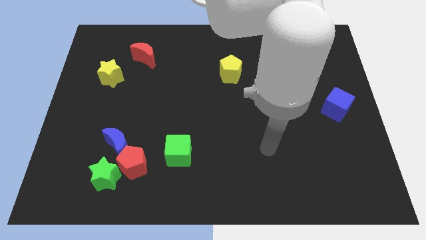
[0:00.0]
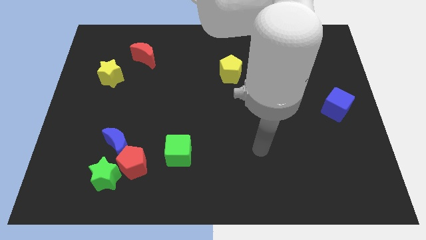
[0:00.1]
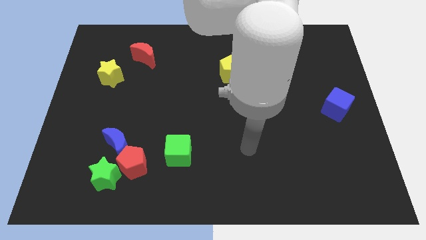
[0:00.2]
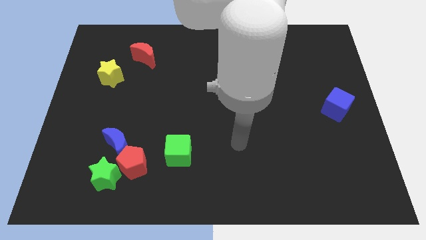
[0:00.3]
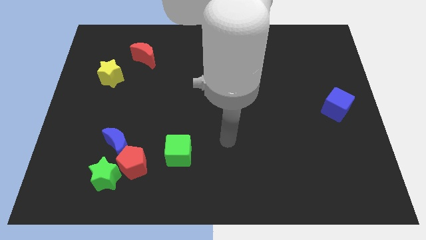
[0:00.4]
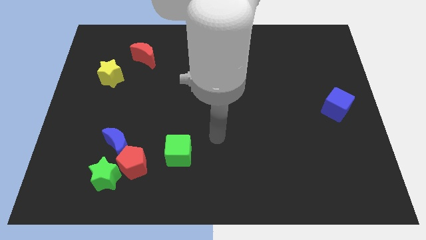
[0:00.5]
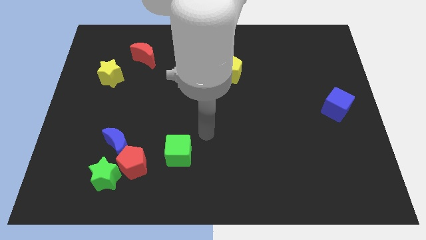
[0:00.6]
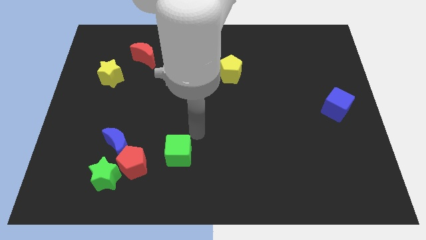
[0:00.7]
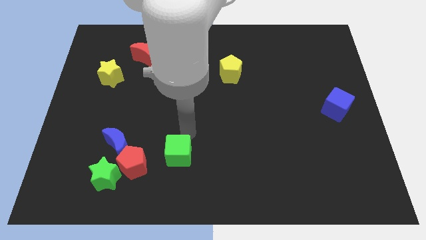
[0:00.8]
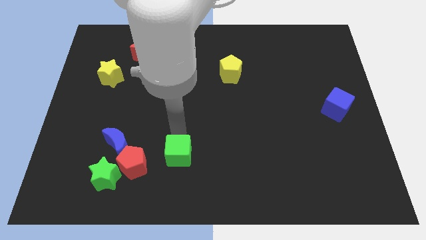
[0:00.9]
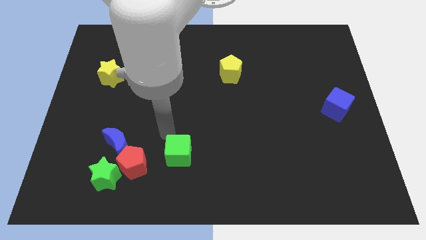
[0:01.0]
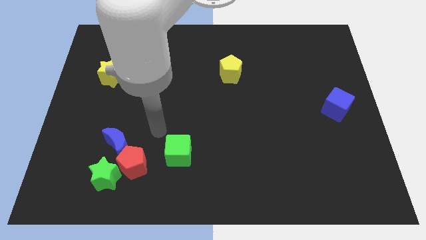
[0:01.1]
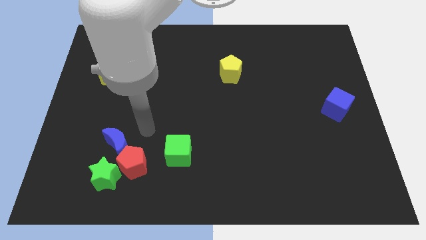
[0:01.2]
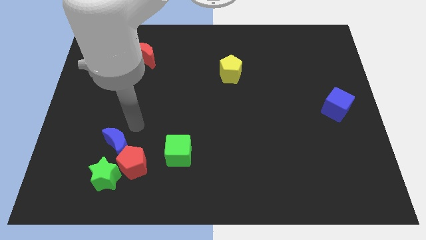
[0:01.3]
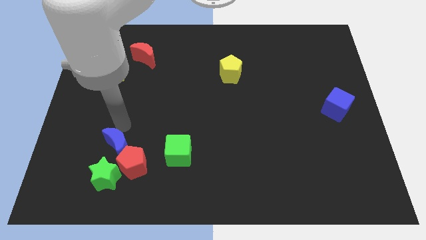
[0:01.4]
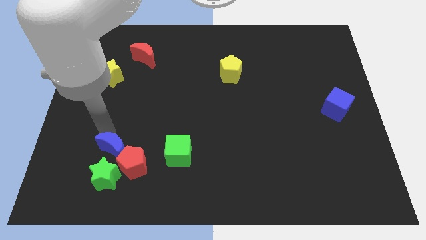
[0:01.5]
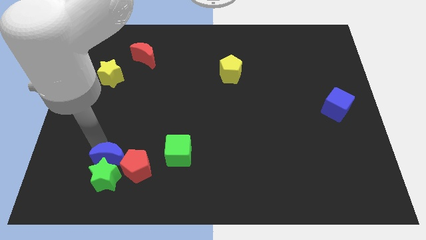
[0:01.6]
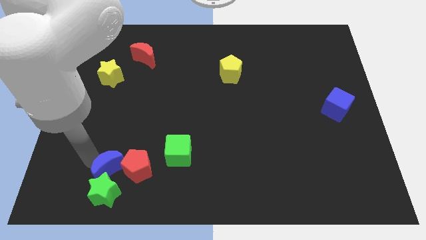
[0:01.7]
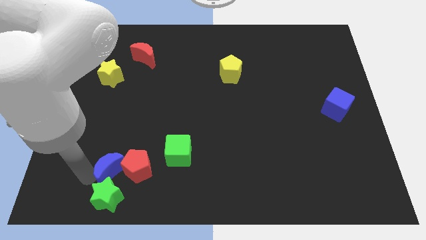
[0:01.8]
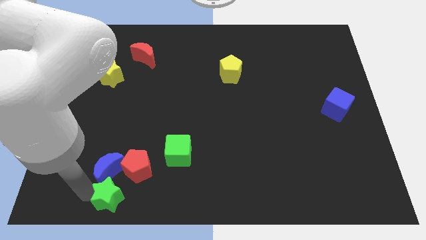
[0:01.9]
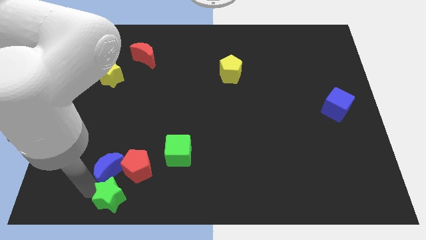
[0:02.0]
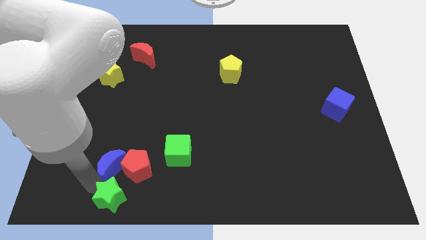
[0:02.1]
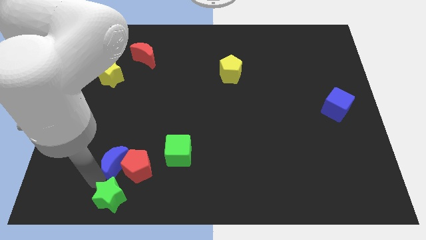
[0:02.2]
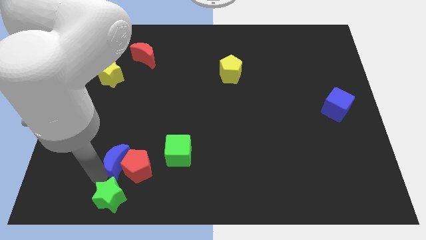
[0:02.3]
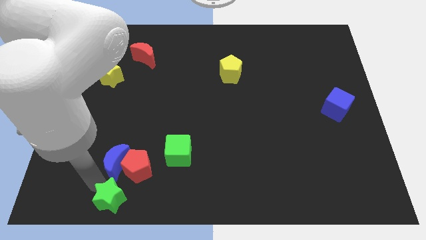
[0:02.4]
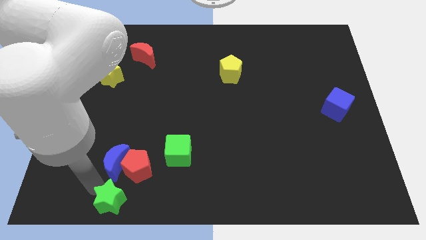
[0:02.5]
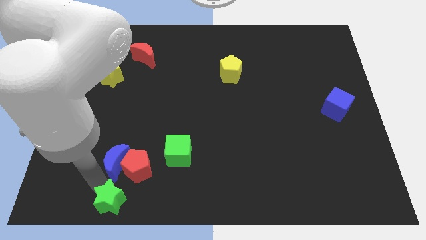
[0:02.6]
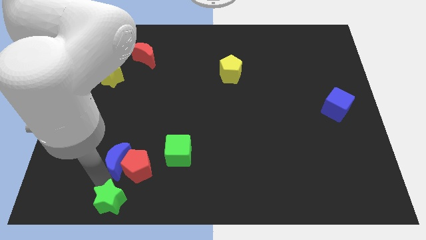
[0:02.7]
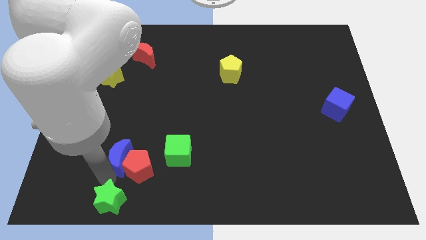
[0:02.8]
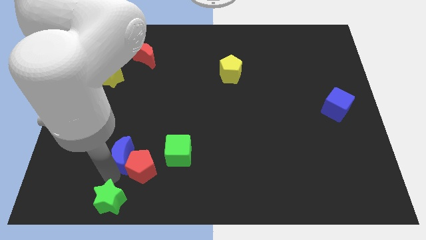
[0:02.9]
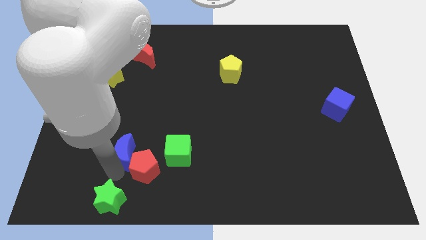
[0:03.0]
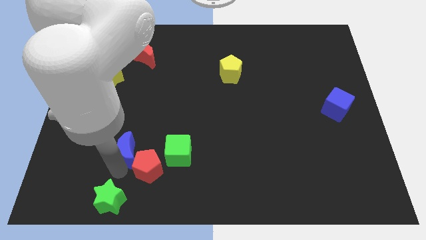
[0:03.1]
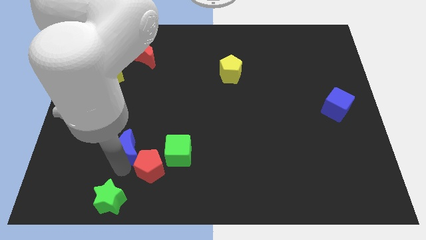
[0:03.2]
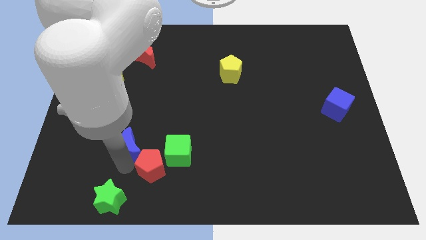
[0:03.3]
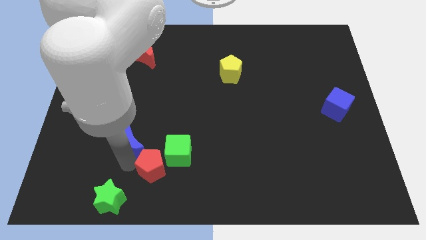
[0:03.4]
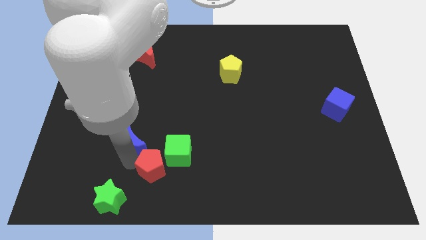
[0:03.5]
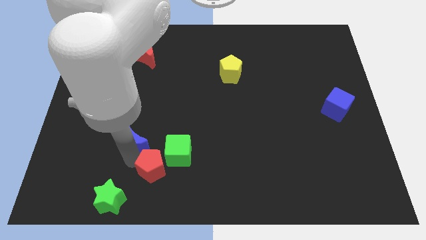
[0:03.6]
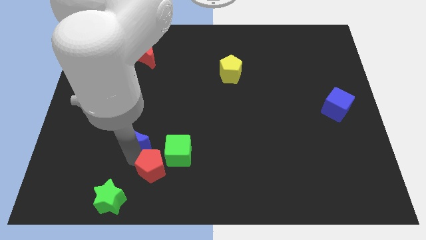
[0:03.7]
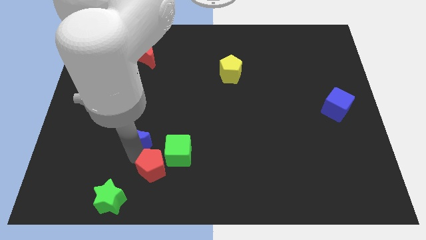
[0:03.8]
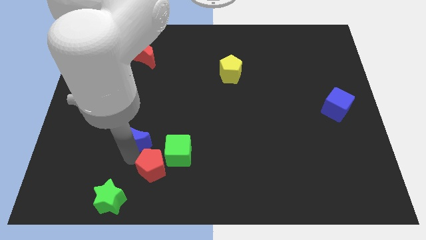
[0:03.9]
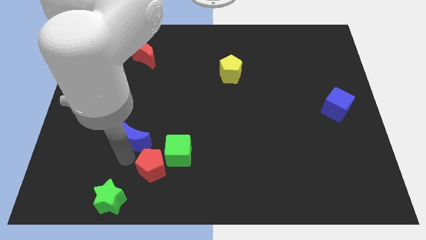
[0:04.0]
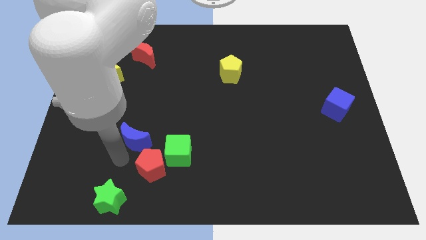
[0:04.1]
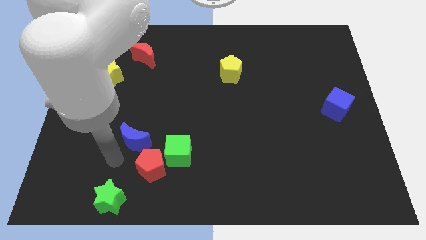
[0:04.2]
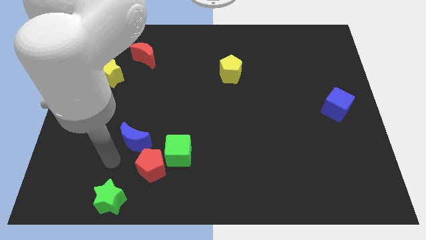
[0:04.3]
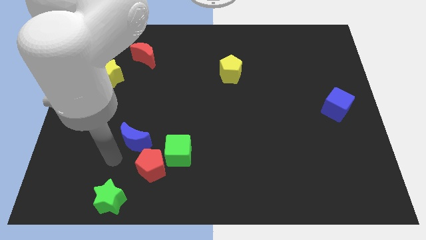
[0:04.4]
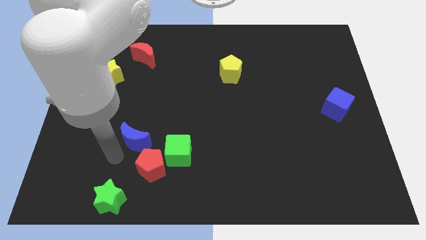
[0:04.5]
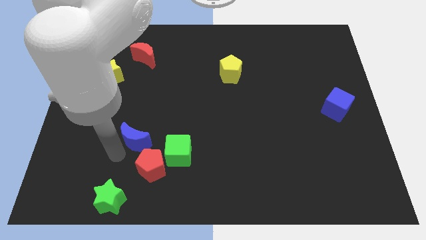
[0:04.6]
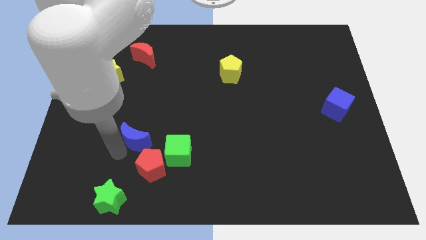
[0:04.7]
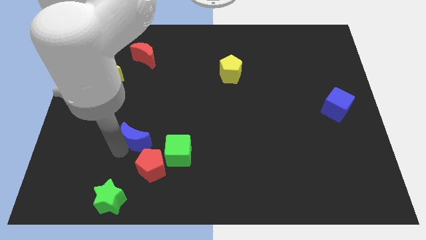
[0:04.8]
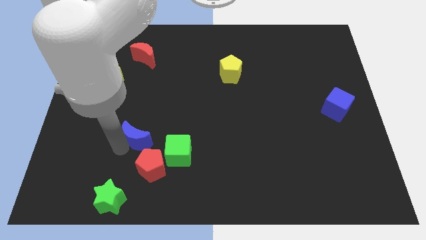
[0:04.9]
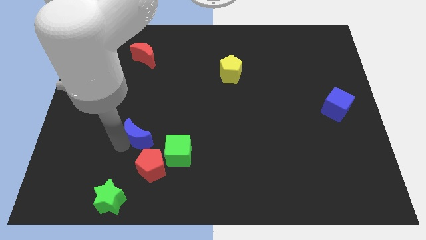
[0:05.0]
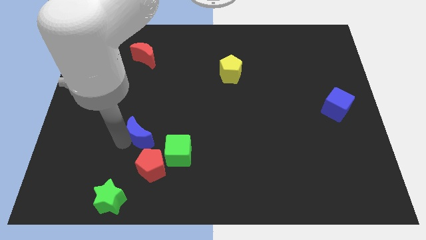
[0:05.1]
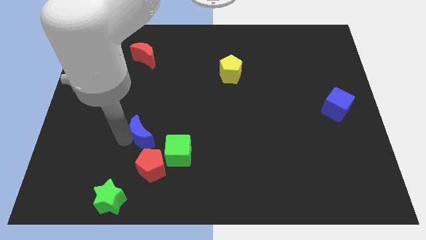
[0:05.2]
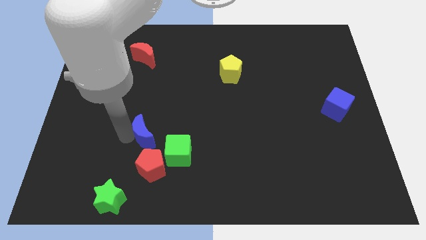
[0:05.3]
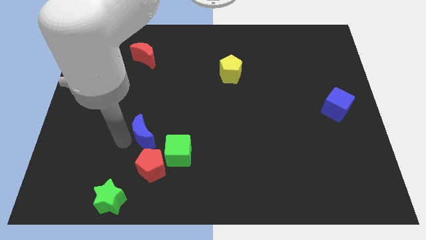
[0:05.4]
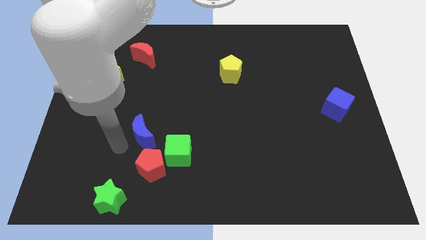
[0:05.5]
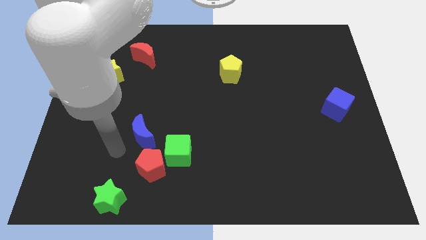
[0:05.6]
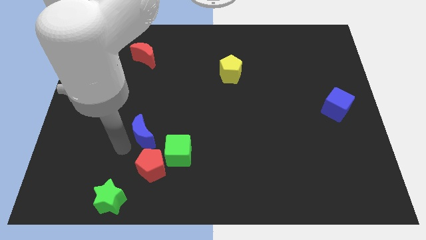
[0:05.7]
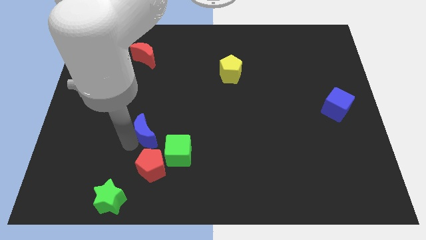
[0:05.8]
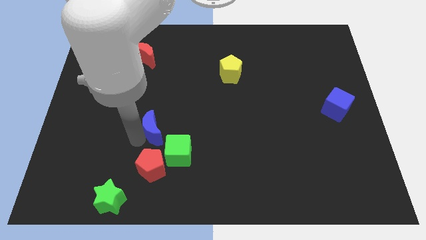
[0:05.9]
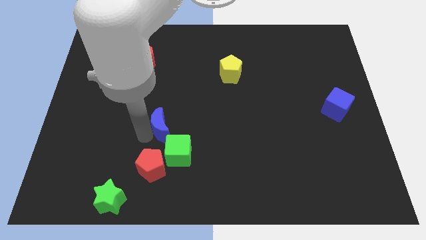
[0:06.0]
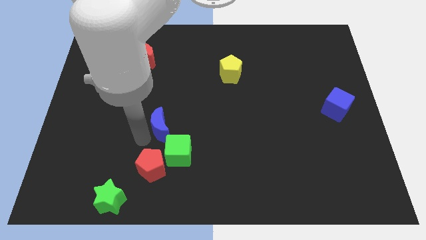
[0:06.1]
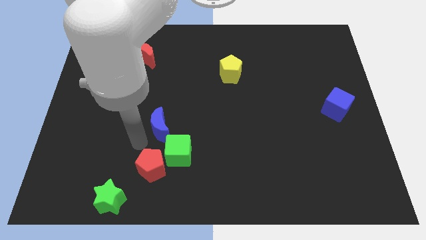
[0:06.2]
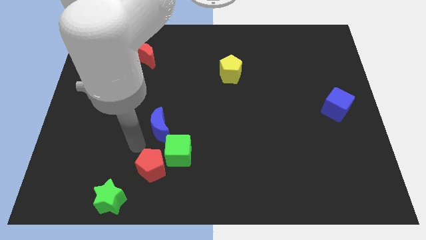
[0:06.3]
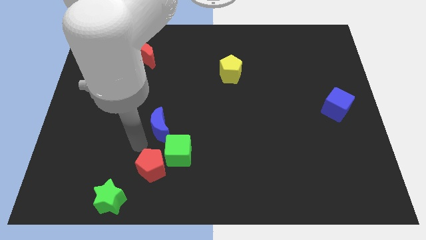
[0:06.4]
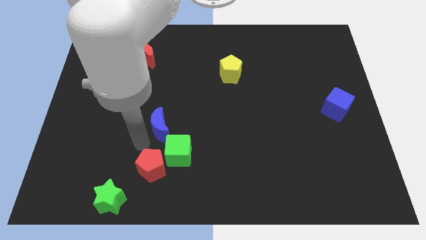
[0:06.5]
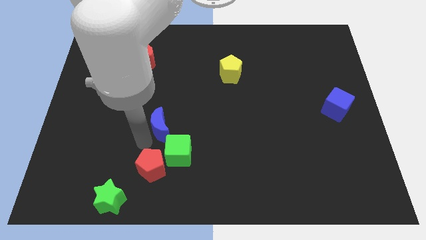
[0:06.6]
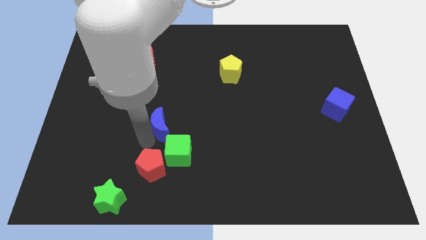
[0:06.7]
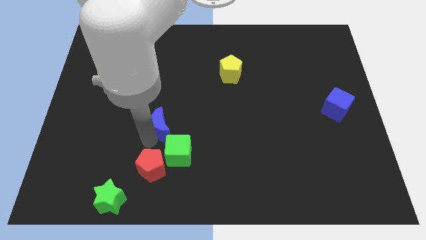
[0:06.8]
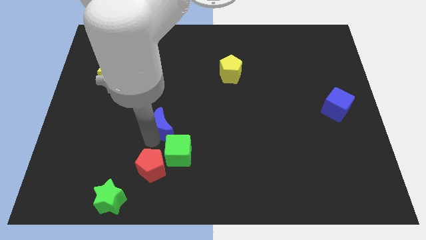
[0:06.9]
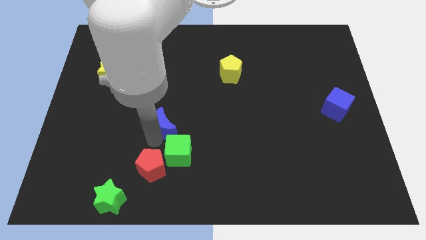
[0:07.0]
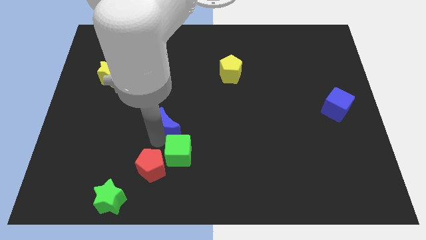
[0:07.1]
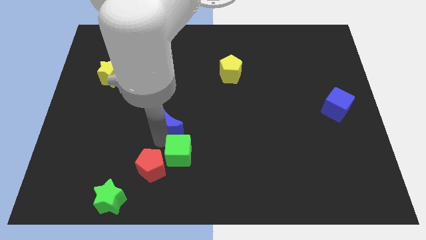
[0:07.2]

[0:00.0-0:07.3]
move the blue moon to the center
